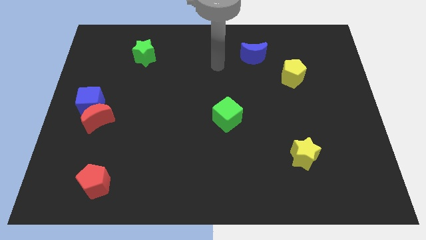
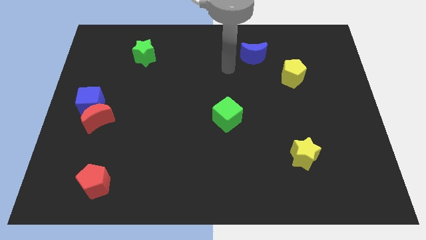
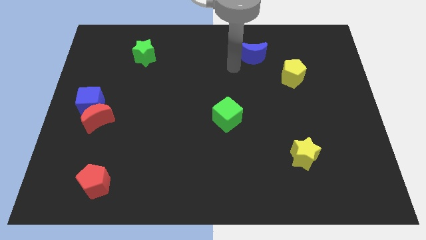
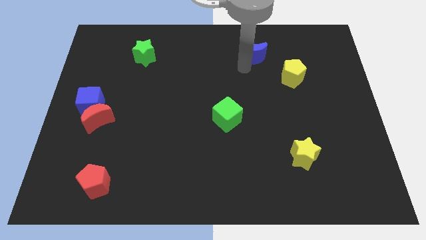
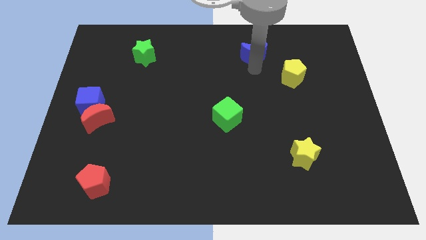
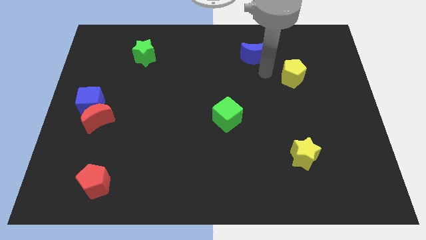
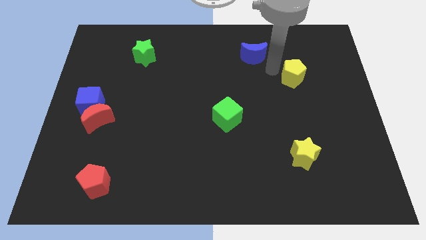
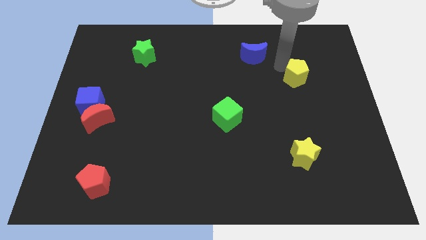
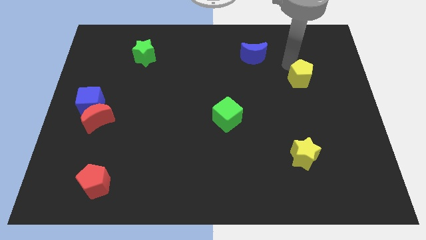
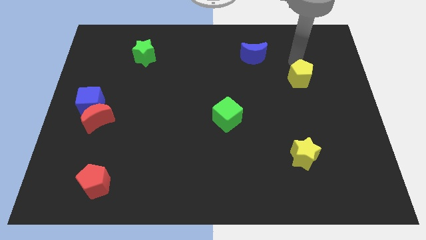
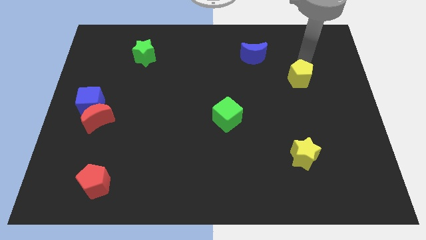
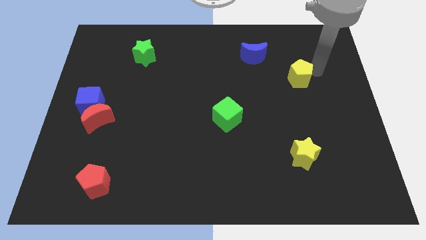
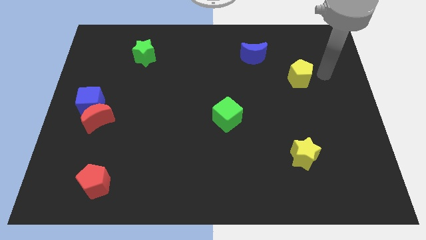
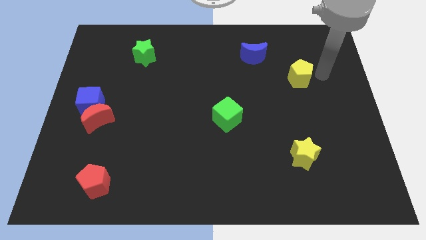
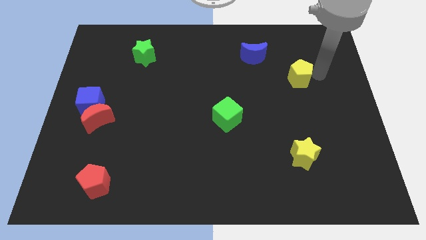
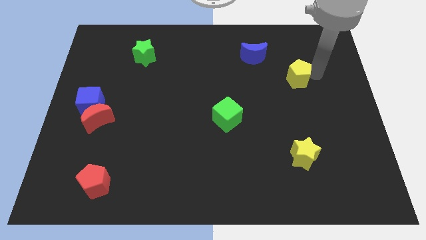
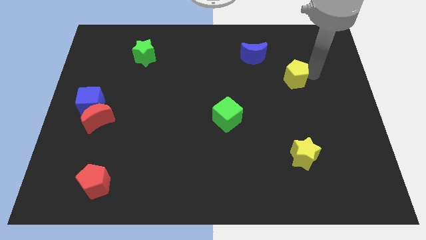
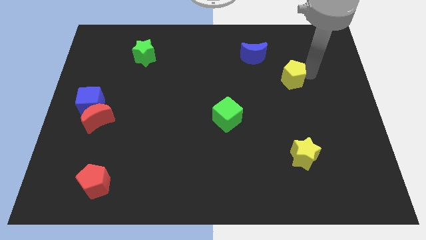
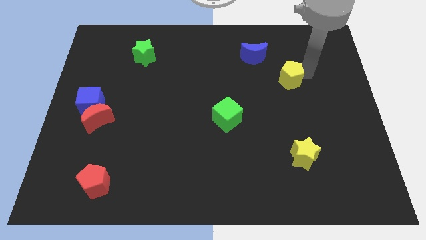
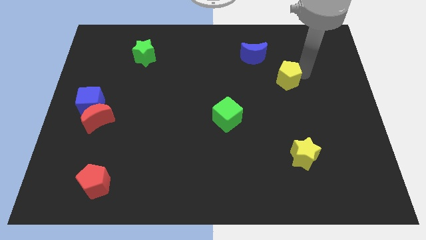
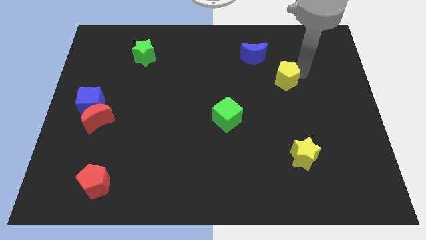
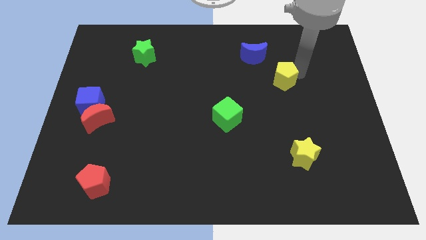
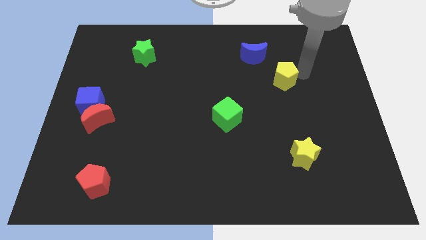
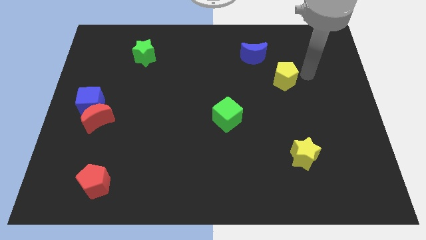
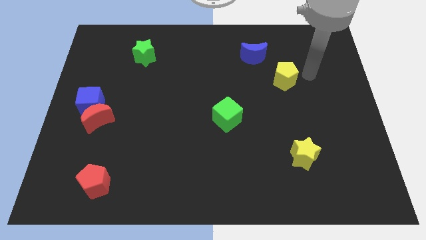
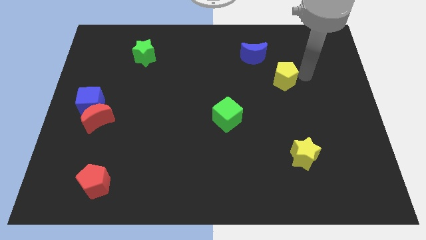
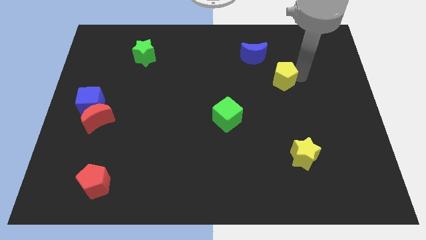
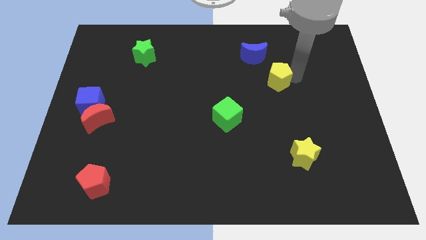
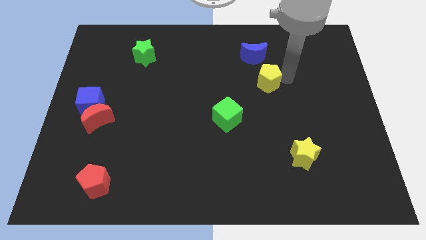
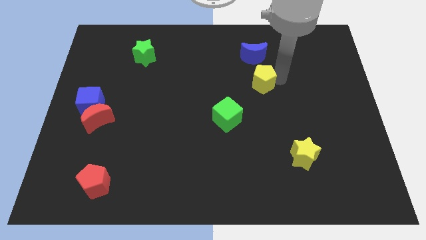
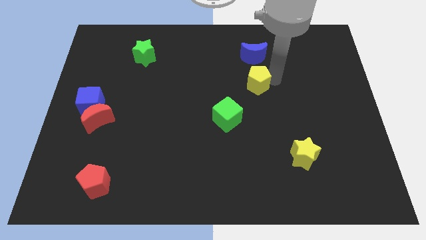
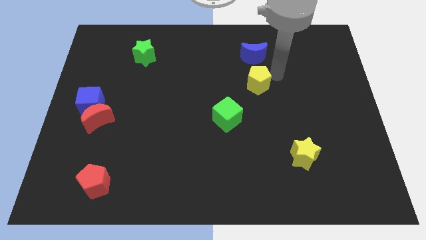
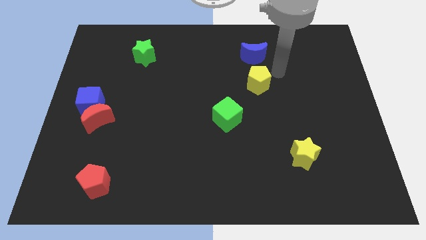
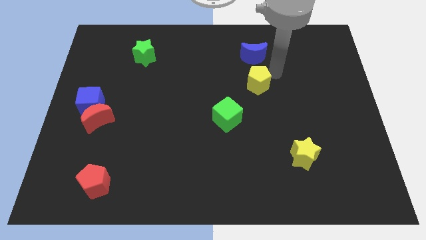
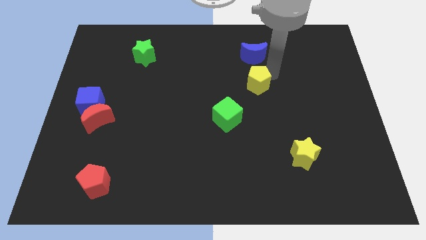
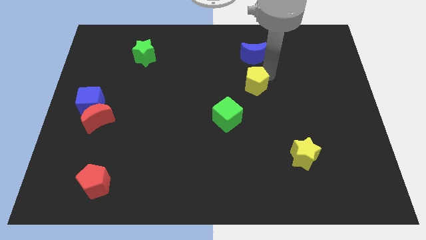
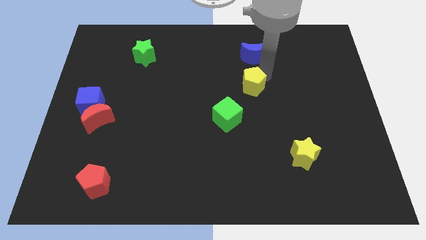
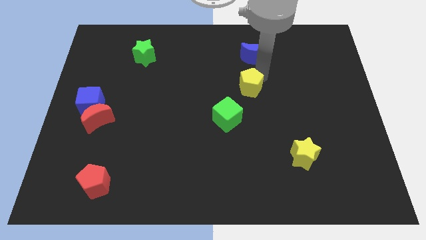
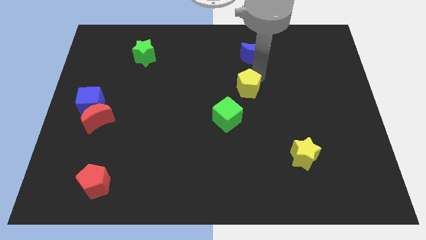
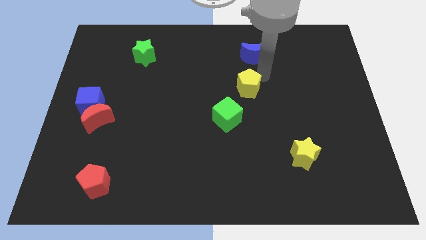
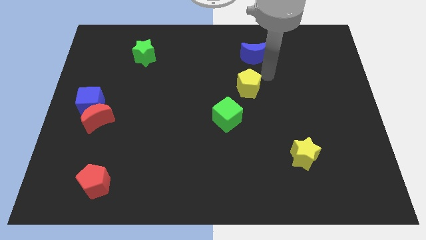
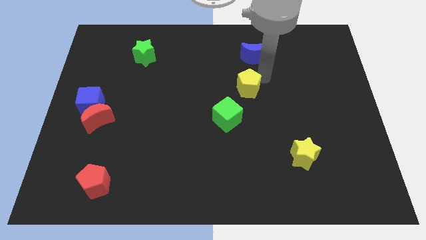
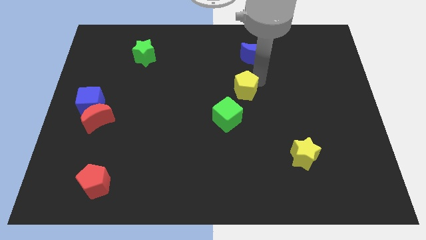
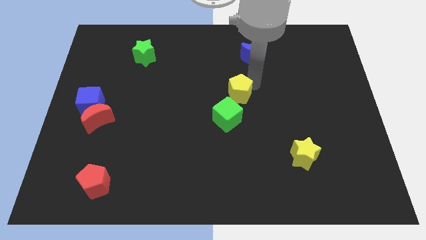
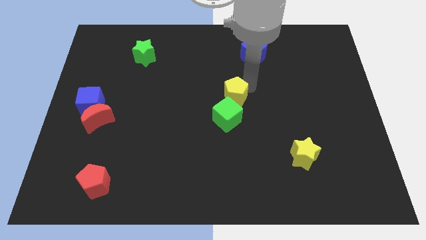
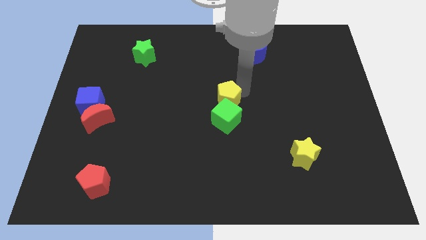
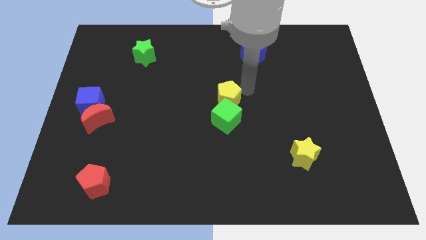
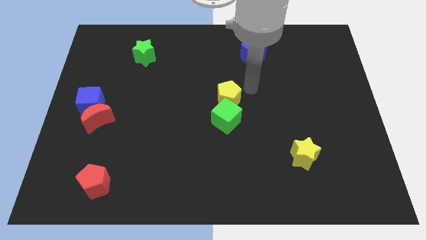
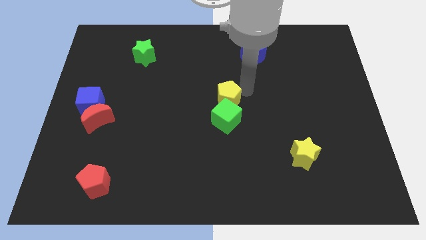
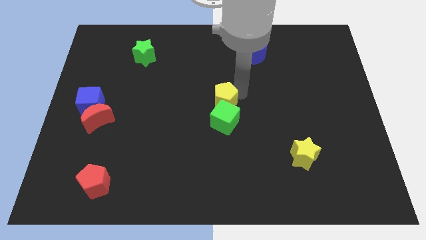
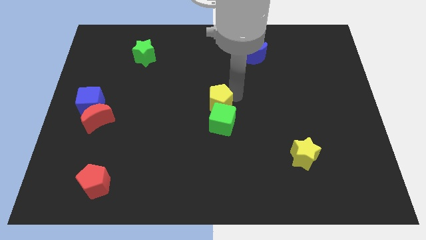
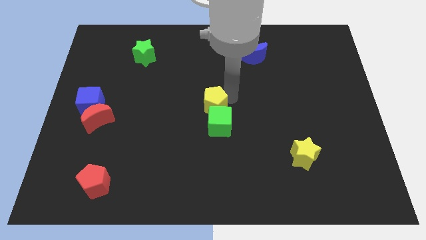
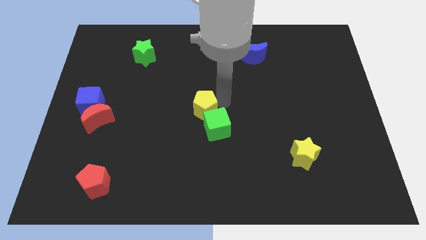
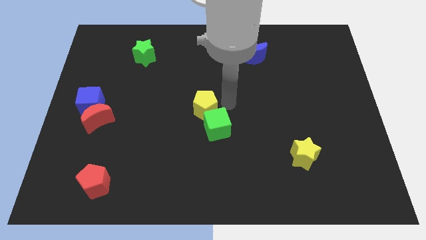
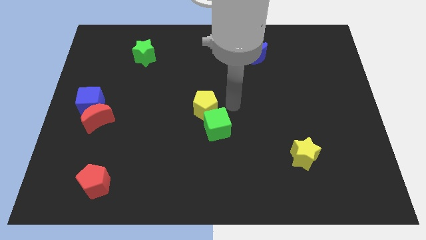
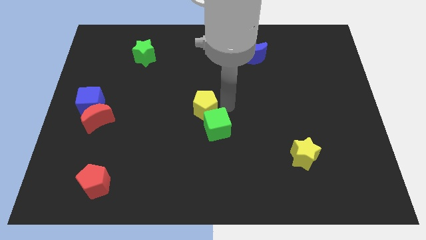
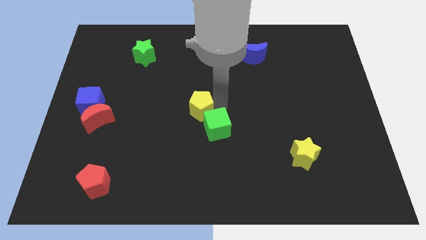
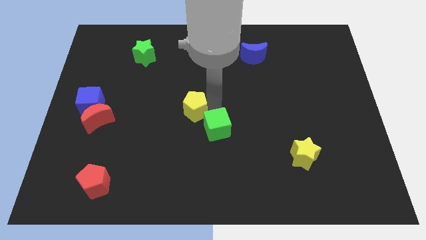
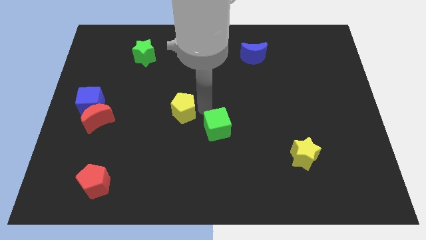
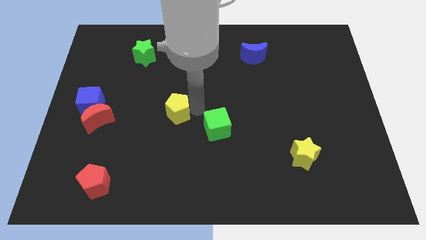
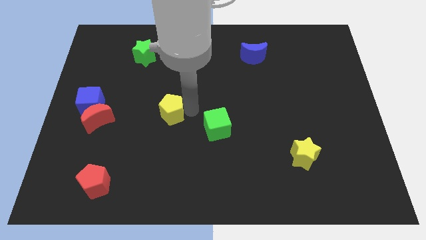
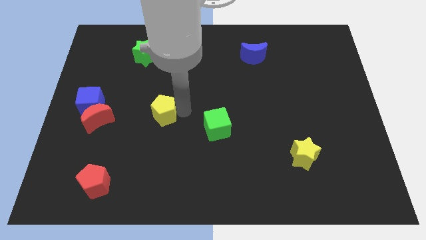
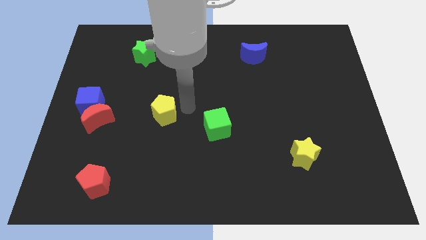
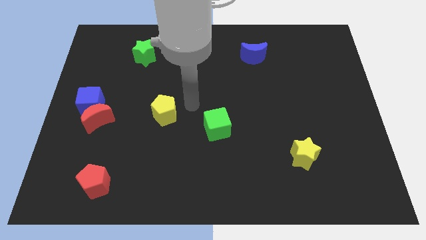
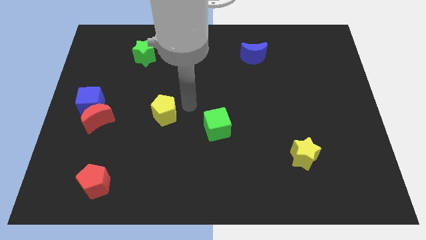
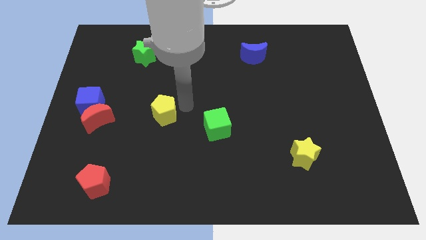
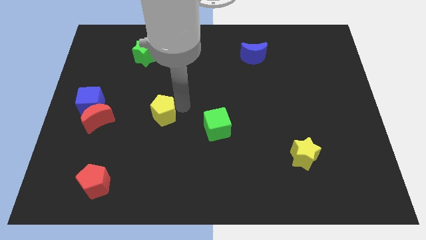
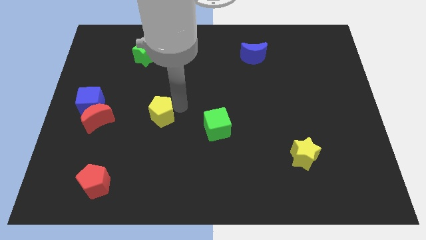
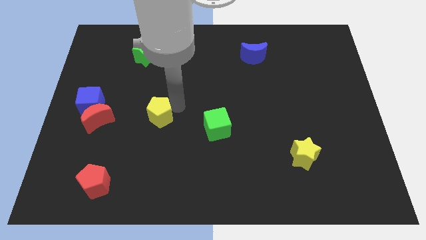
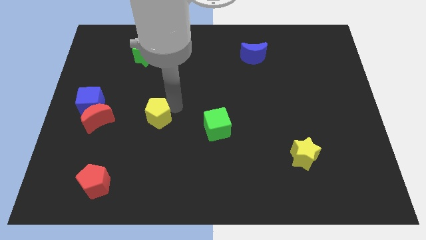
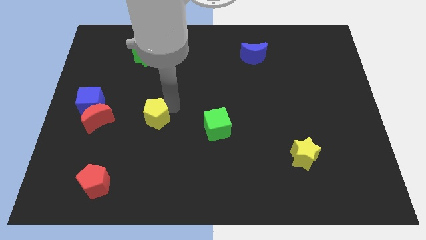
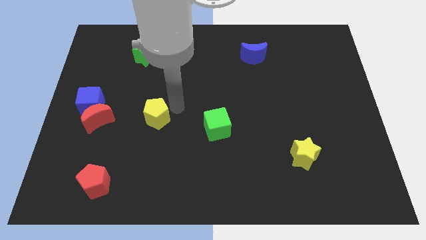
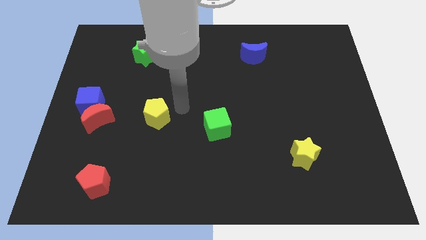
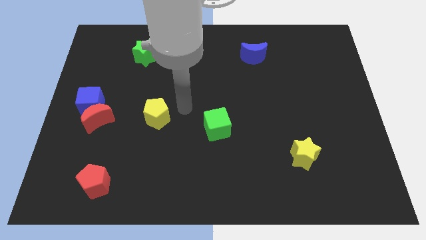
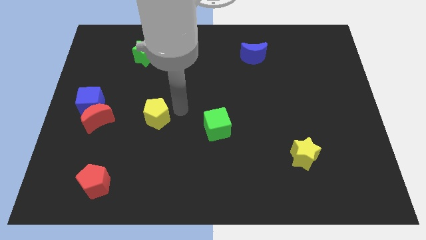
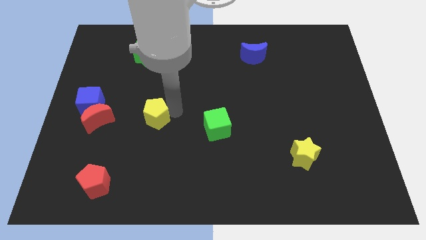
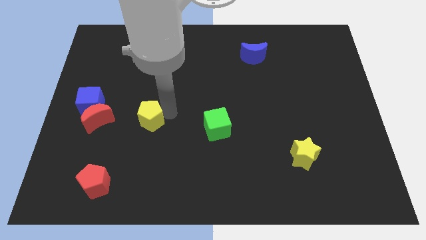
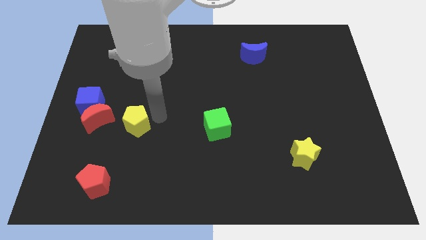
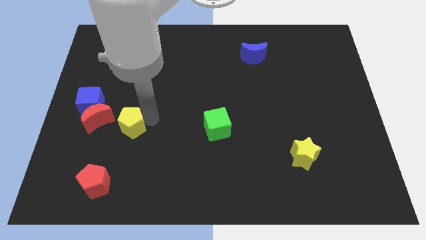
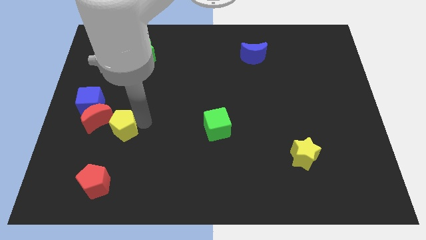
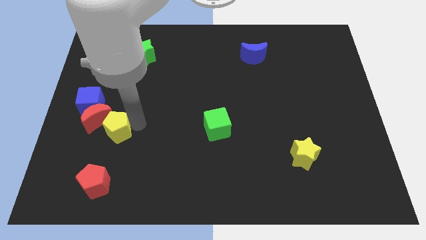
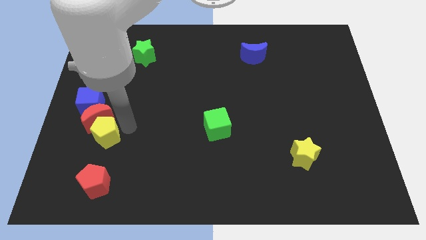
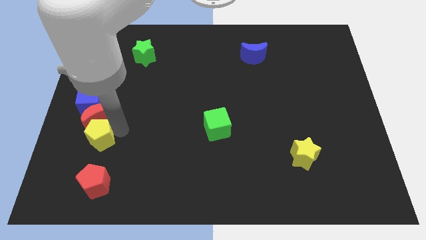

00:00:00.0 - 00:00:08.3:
put the yellow pentagon to the bottom side of the blue cube
